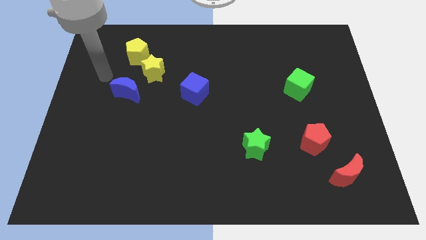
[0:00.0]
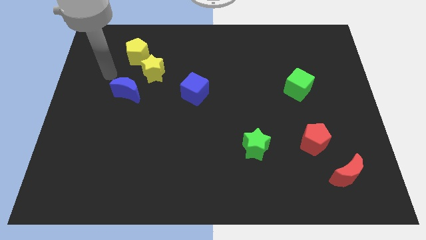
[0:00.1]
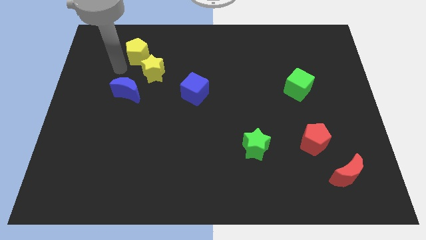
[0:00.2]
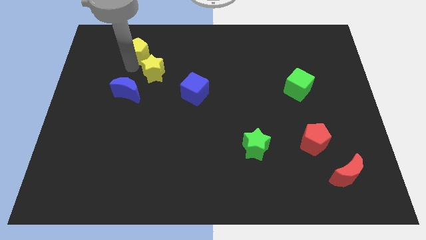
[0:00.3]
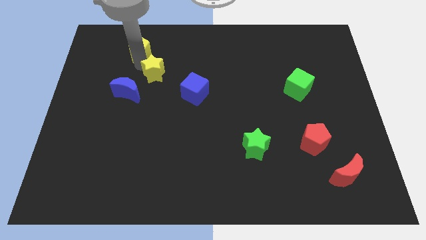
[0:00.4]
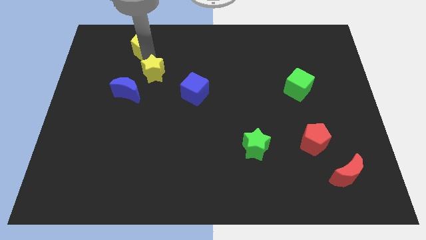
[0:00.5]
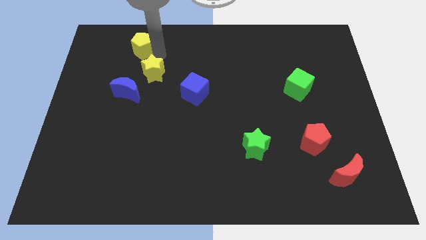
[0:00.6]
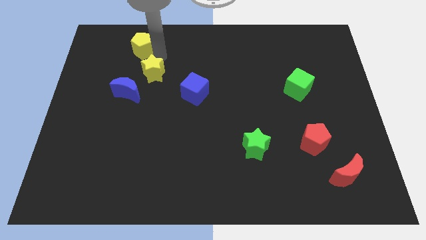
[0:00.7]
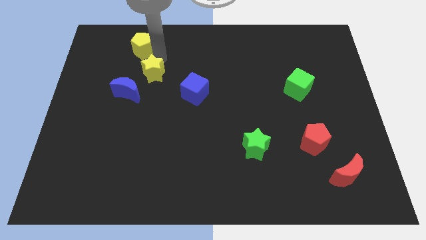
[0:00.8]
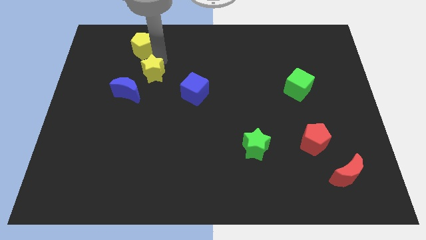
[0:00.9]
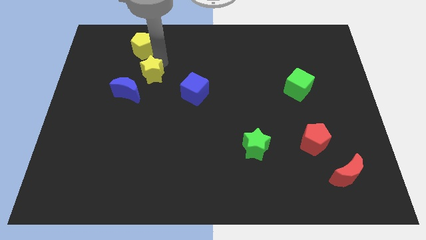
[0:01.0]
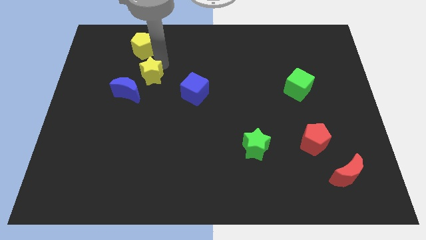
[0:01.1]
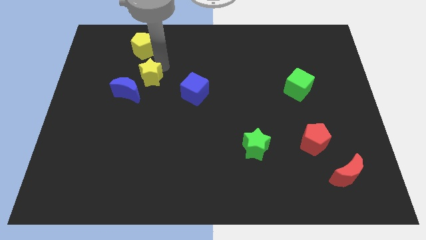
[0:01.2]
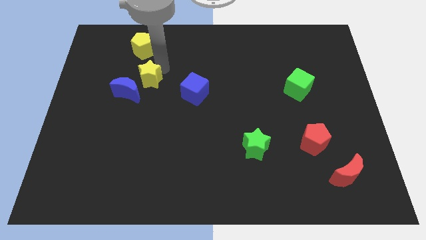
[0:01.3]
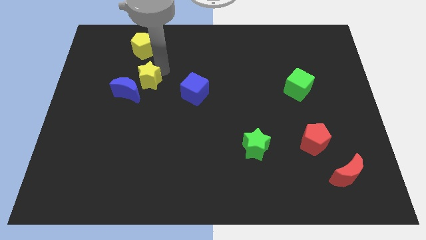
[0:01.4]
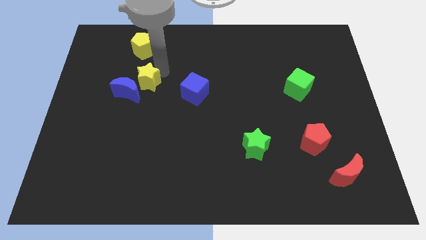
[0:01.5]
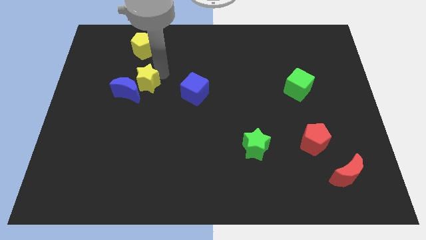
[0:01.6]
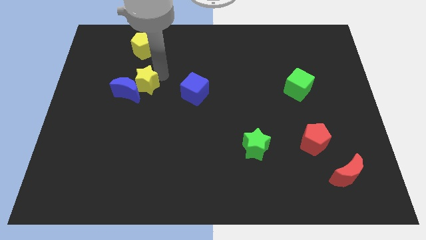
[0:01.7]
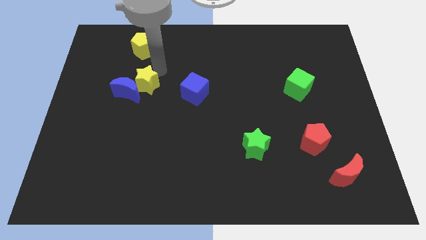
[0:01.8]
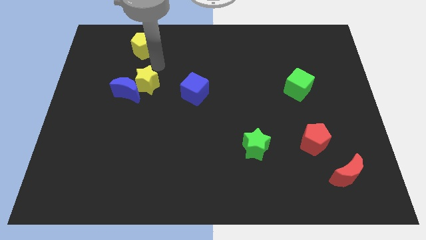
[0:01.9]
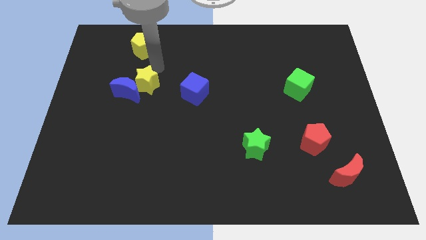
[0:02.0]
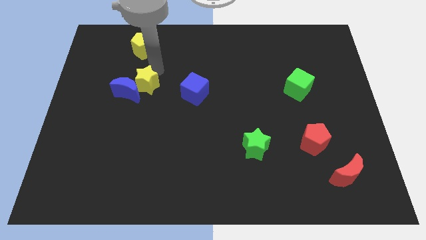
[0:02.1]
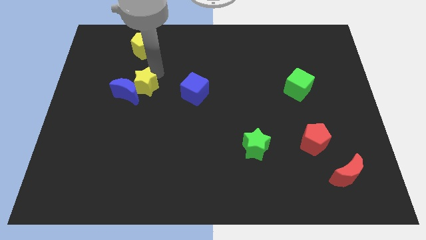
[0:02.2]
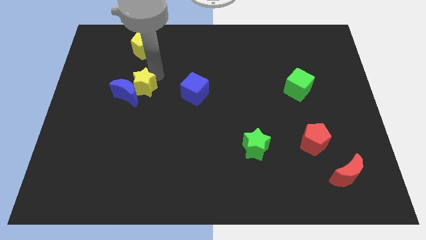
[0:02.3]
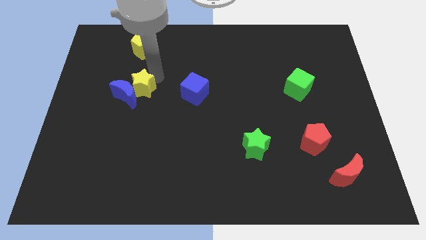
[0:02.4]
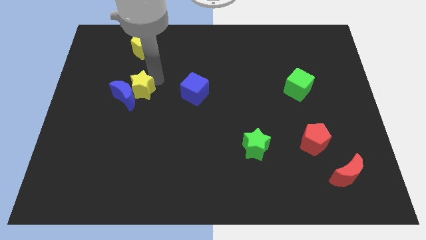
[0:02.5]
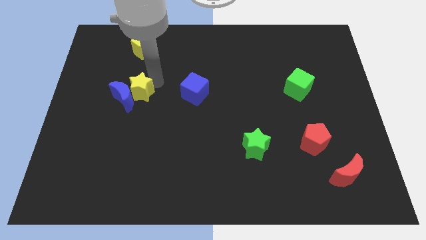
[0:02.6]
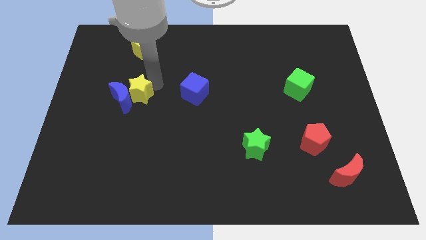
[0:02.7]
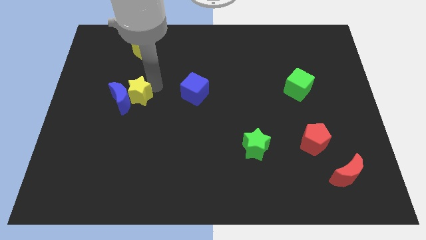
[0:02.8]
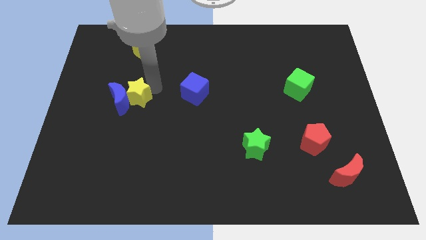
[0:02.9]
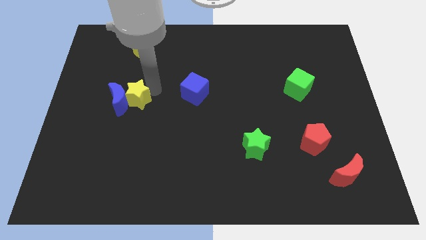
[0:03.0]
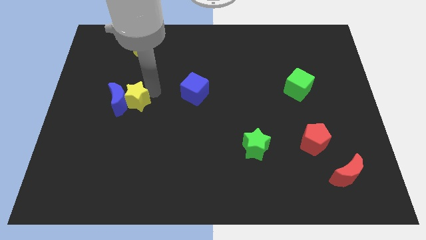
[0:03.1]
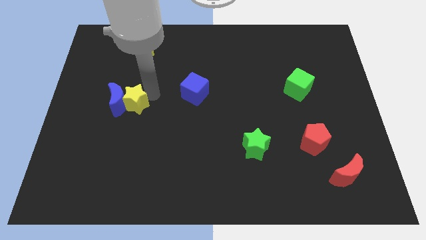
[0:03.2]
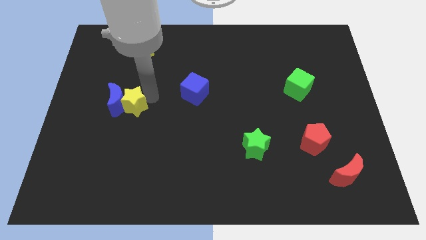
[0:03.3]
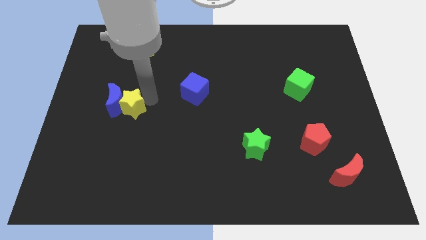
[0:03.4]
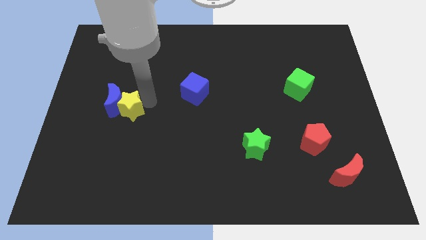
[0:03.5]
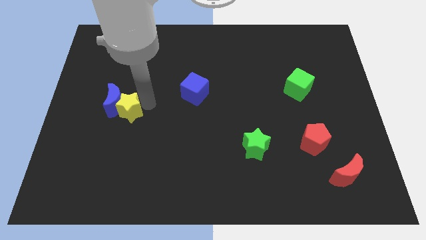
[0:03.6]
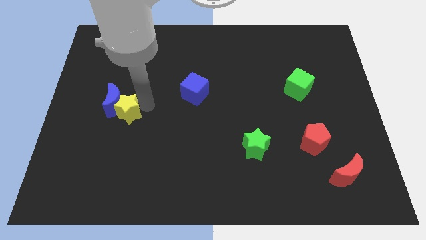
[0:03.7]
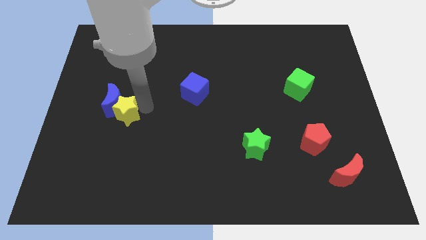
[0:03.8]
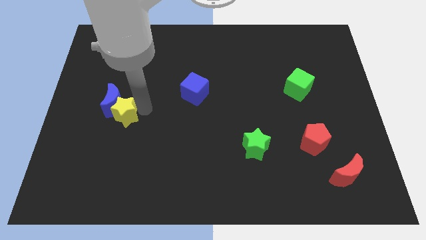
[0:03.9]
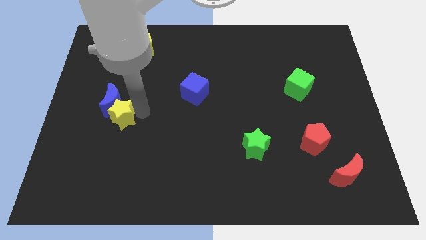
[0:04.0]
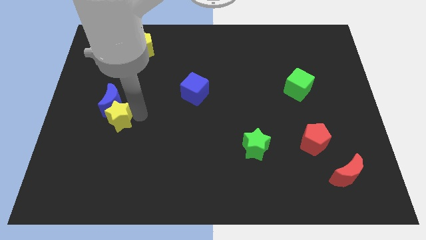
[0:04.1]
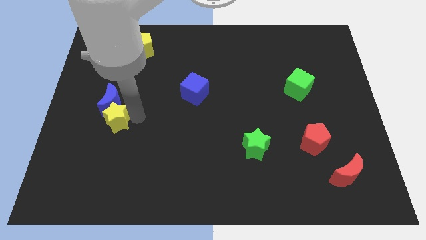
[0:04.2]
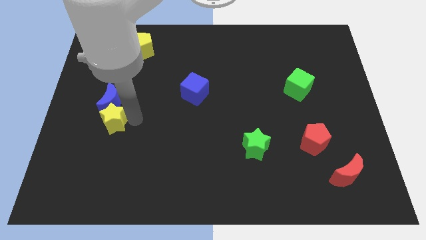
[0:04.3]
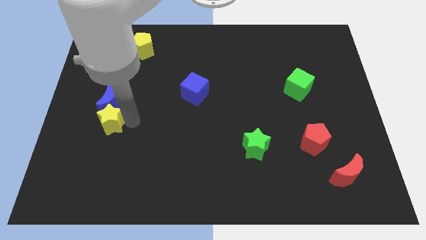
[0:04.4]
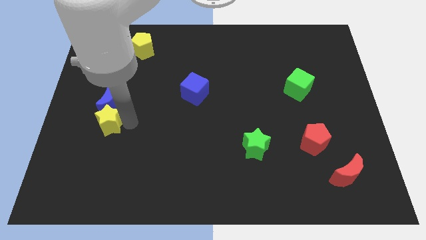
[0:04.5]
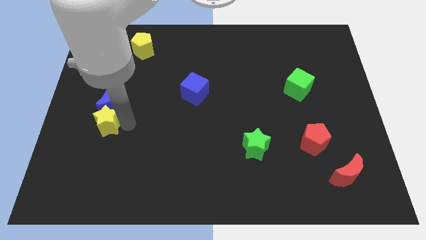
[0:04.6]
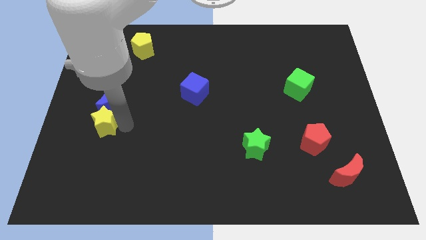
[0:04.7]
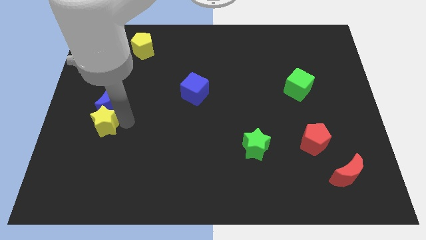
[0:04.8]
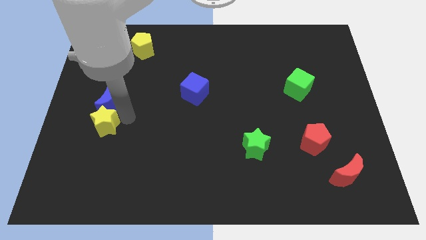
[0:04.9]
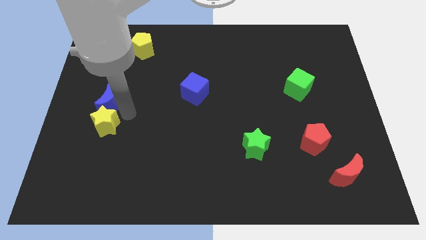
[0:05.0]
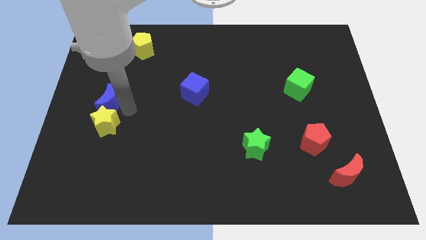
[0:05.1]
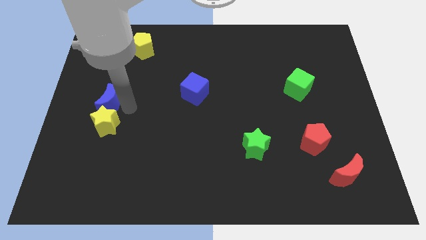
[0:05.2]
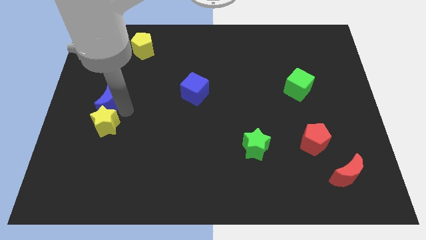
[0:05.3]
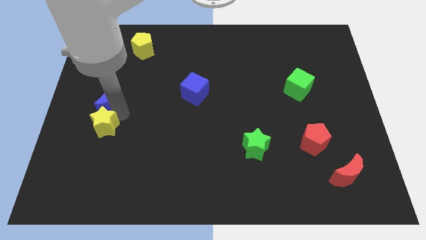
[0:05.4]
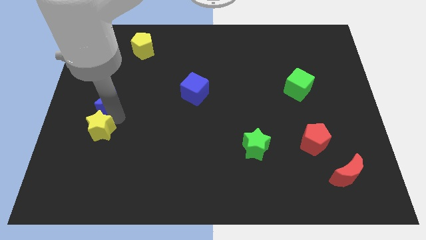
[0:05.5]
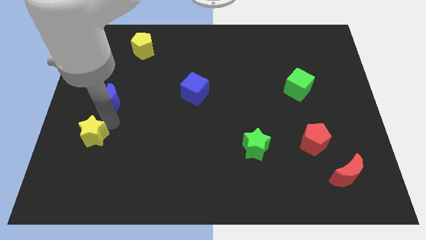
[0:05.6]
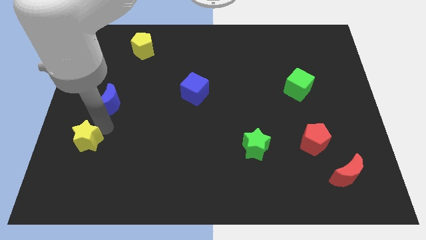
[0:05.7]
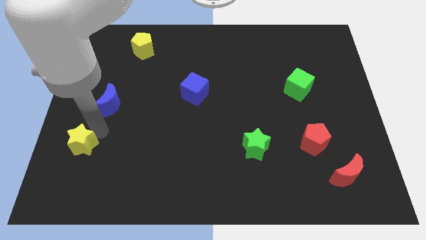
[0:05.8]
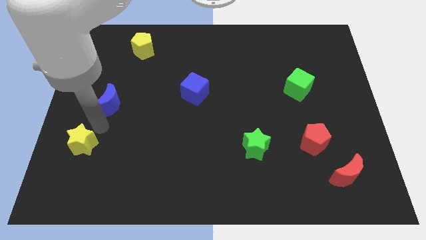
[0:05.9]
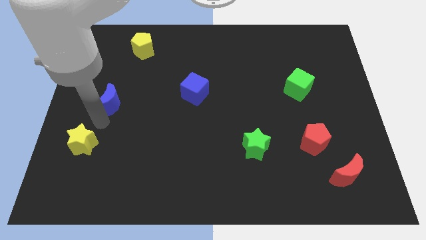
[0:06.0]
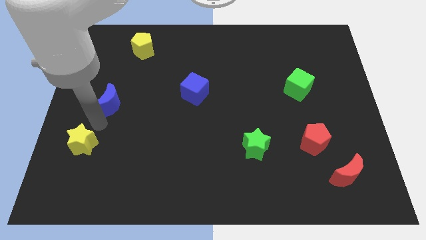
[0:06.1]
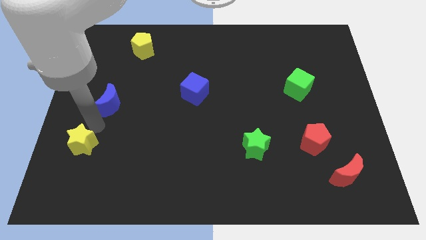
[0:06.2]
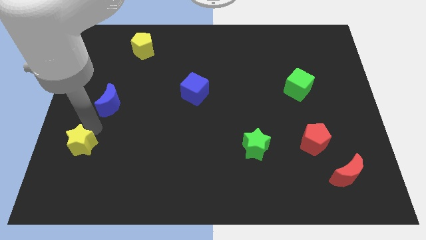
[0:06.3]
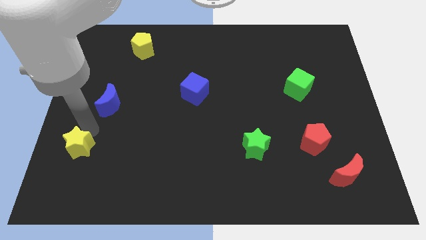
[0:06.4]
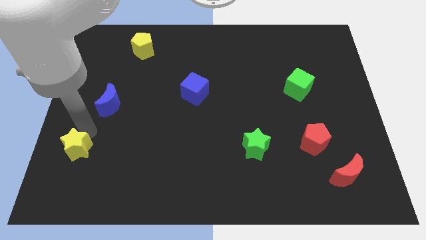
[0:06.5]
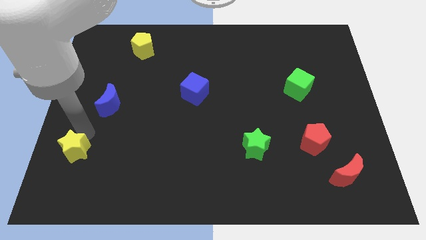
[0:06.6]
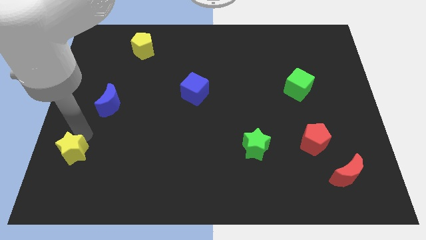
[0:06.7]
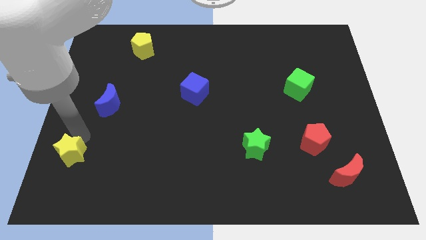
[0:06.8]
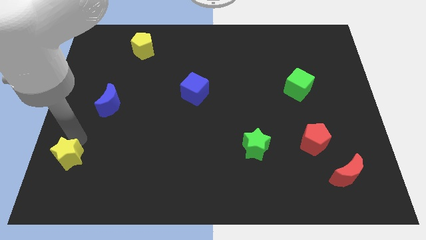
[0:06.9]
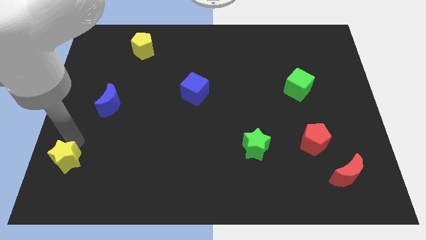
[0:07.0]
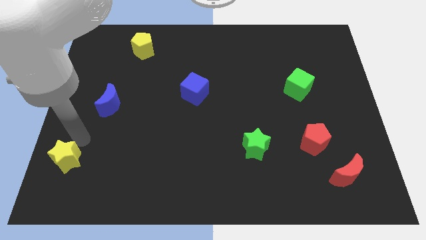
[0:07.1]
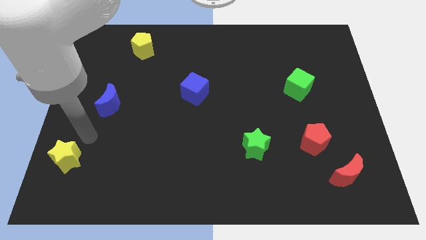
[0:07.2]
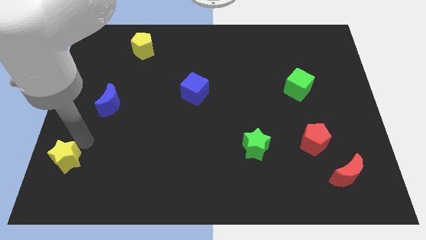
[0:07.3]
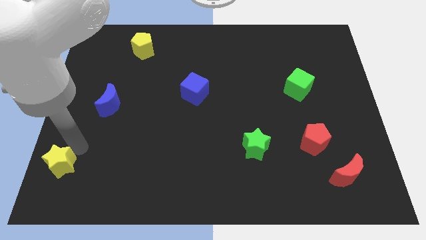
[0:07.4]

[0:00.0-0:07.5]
put the yellow star to the bottom left corner
